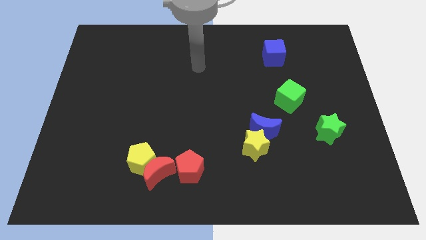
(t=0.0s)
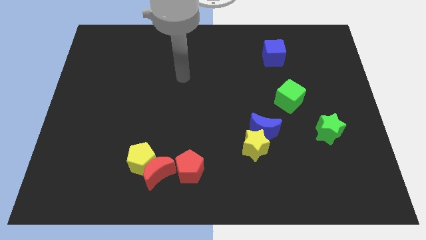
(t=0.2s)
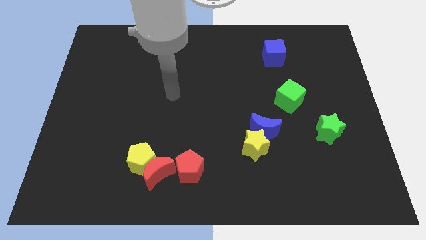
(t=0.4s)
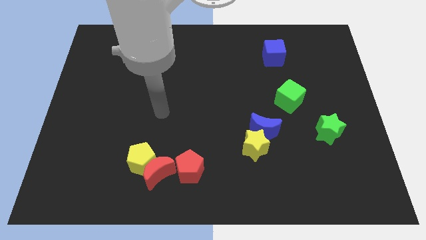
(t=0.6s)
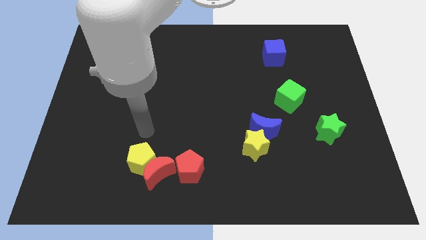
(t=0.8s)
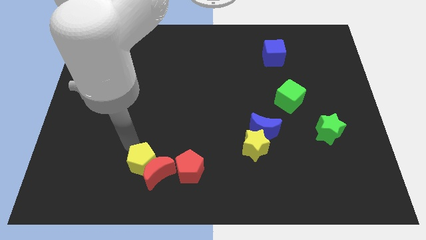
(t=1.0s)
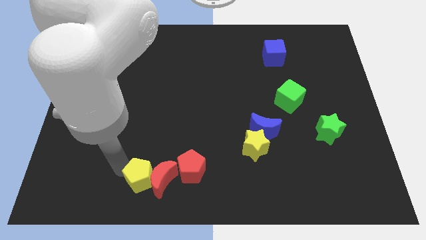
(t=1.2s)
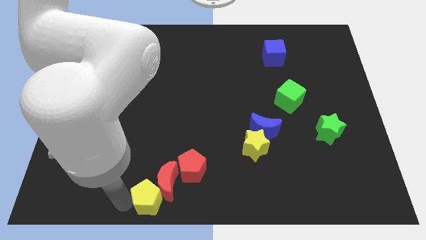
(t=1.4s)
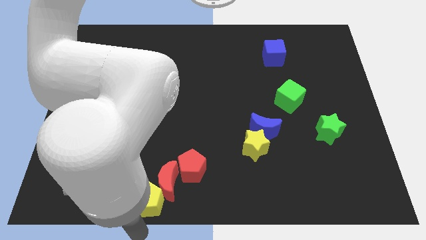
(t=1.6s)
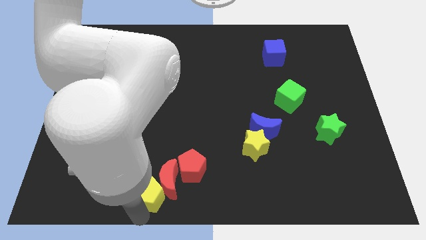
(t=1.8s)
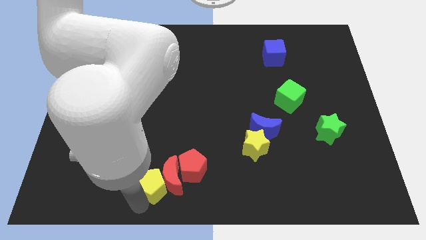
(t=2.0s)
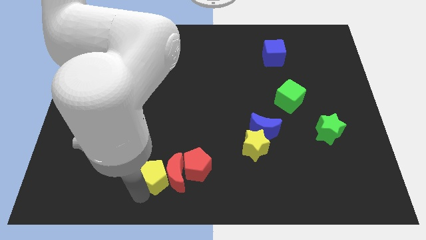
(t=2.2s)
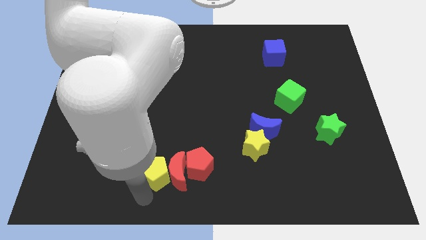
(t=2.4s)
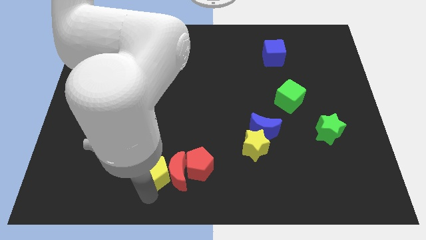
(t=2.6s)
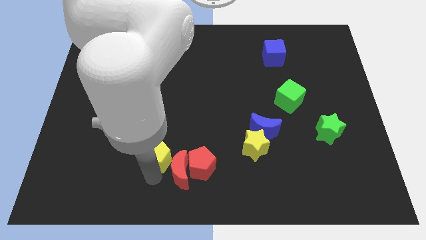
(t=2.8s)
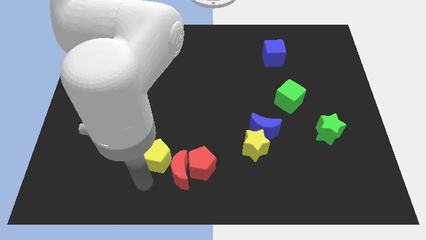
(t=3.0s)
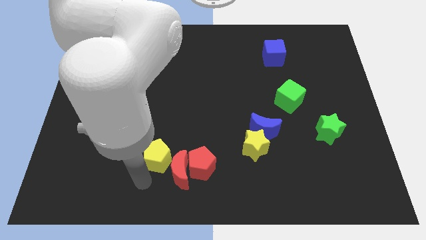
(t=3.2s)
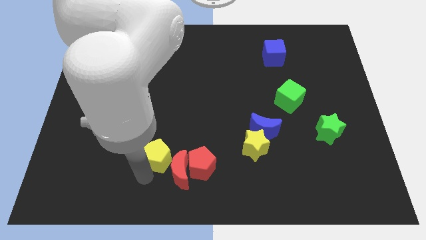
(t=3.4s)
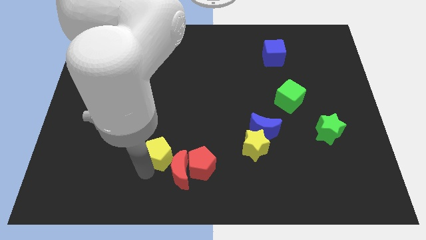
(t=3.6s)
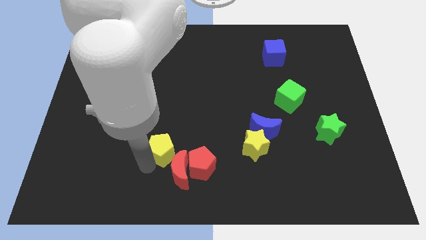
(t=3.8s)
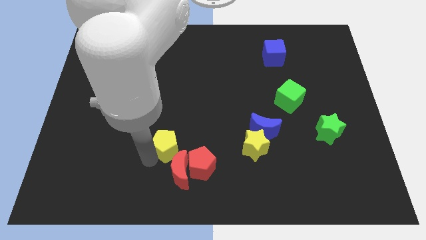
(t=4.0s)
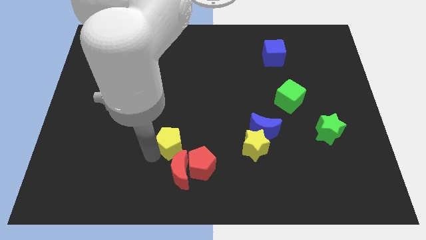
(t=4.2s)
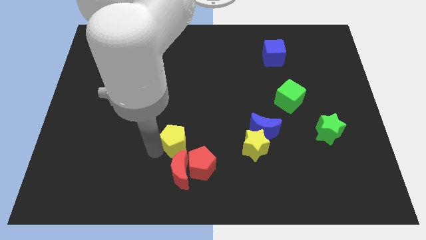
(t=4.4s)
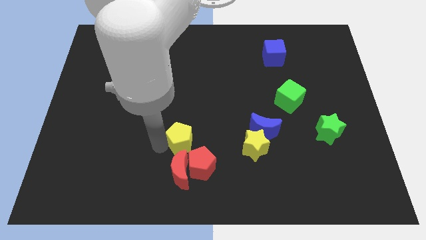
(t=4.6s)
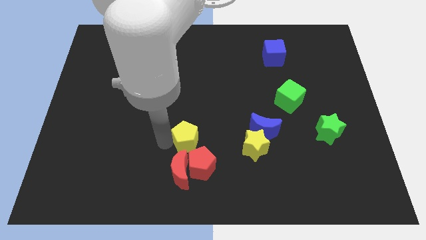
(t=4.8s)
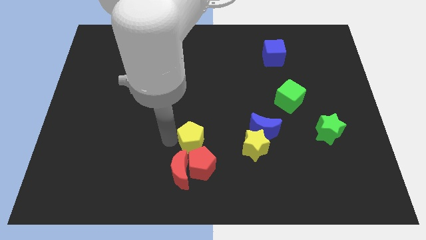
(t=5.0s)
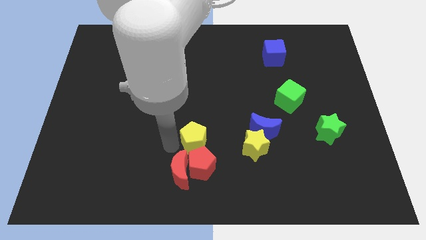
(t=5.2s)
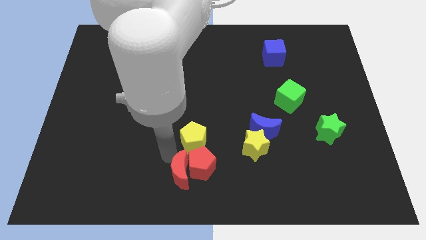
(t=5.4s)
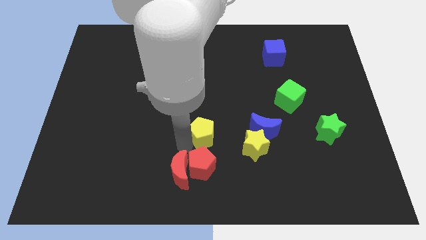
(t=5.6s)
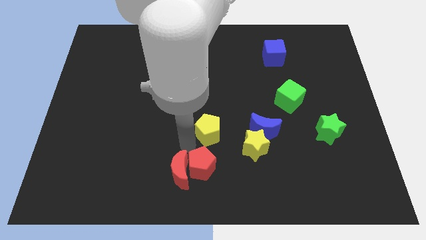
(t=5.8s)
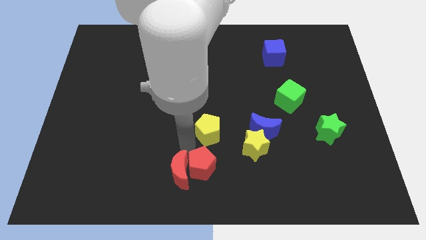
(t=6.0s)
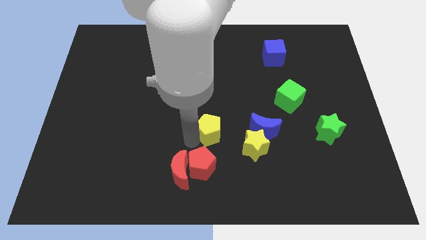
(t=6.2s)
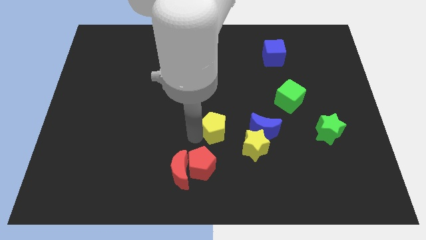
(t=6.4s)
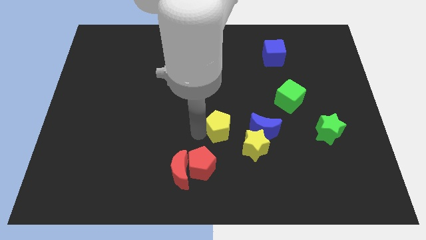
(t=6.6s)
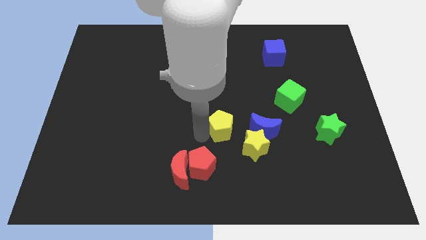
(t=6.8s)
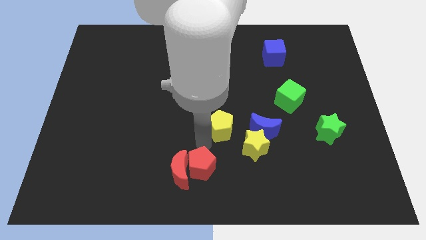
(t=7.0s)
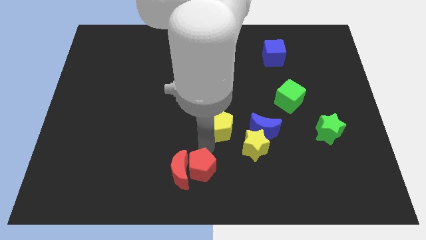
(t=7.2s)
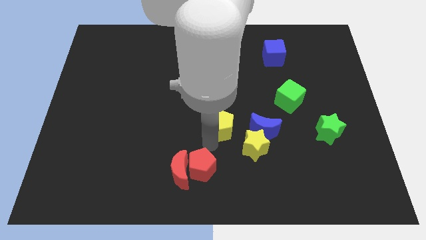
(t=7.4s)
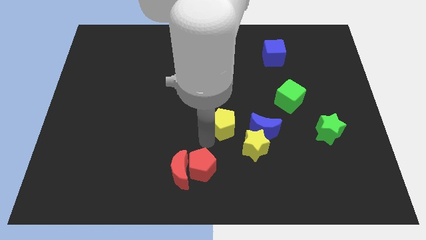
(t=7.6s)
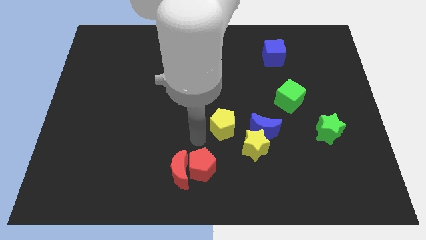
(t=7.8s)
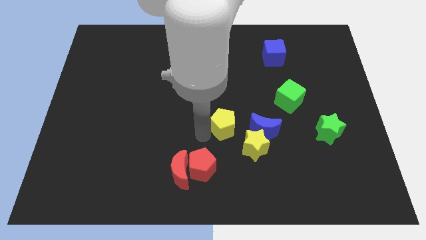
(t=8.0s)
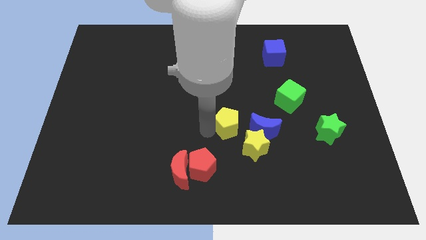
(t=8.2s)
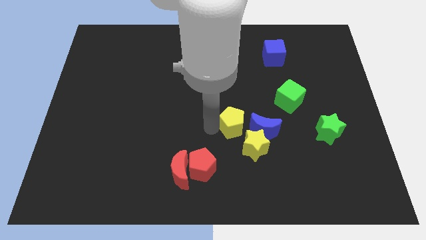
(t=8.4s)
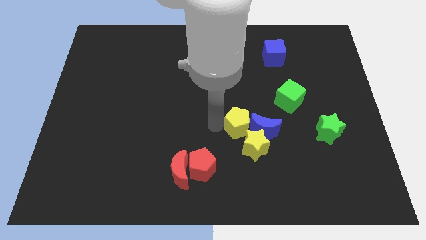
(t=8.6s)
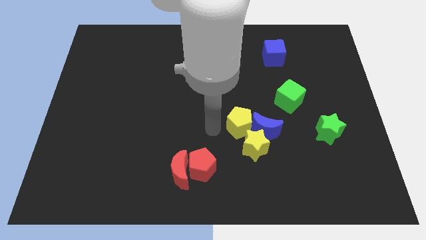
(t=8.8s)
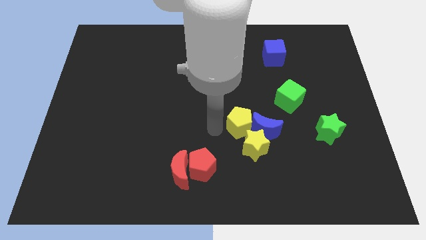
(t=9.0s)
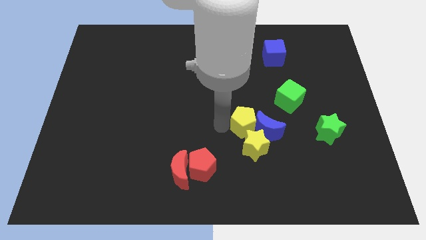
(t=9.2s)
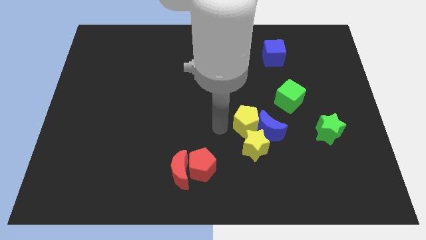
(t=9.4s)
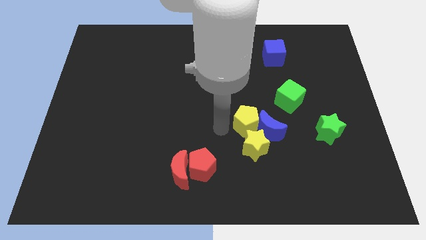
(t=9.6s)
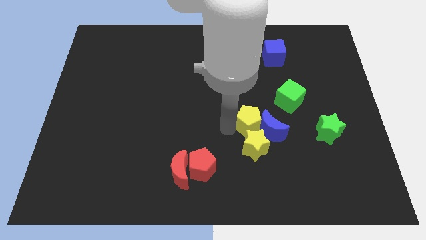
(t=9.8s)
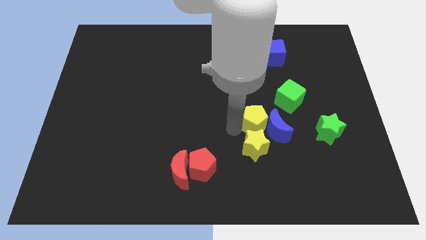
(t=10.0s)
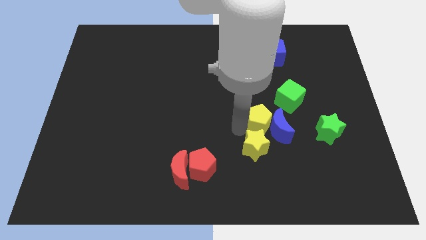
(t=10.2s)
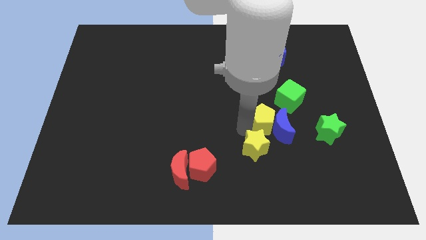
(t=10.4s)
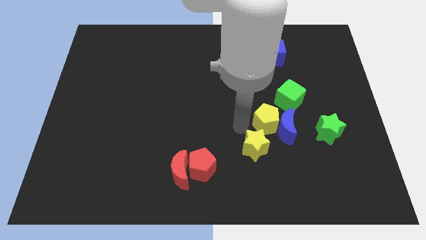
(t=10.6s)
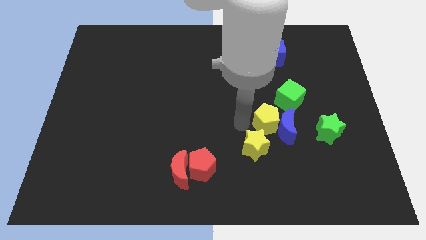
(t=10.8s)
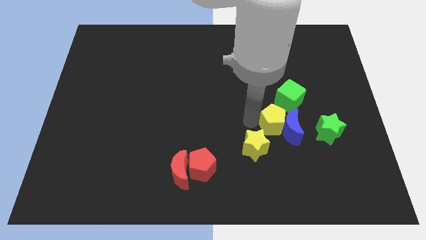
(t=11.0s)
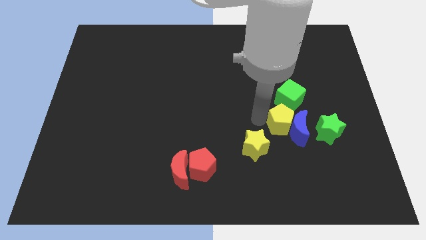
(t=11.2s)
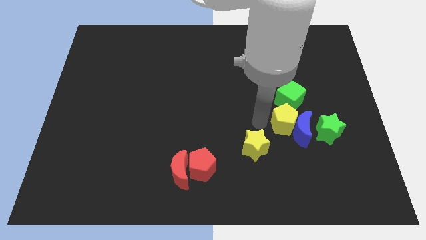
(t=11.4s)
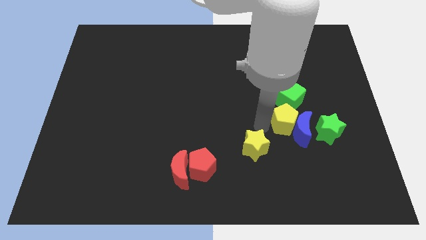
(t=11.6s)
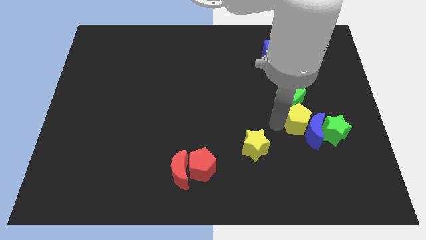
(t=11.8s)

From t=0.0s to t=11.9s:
put the yellow pentagon to the bottom right side of the green cube

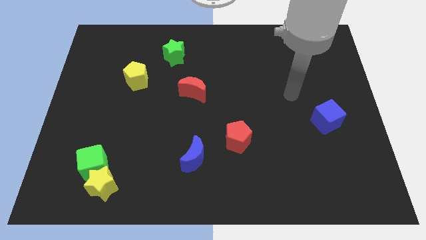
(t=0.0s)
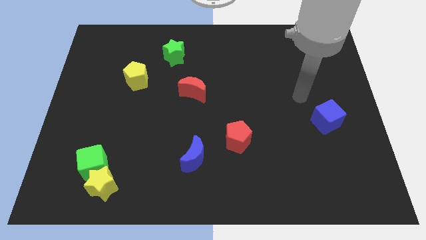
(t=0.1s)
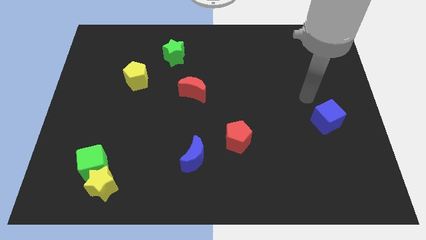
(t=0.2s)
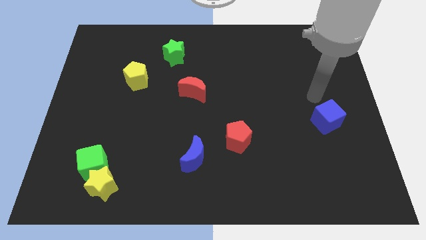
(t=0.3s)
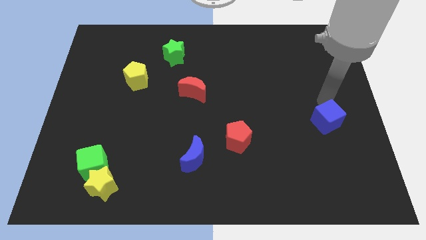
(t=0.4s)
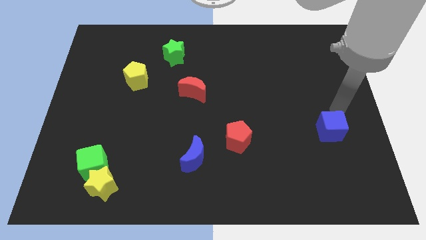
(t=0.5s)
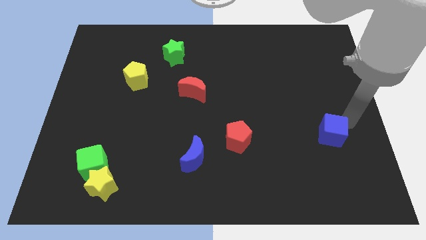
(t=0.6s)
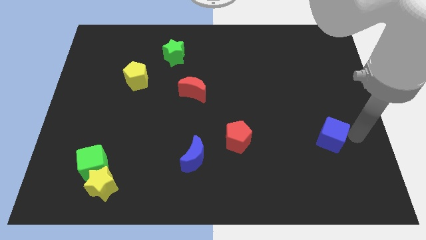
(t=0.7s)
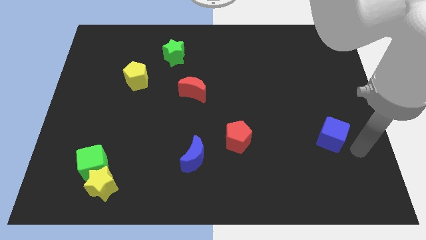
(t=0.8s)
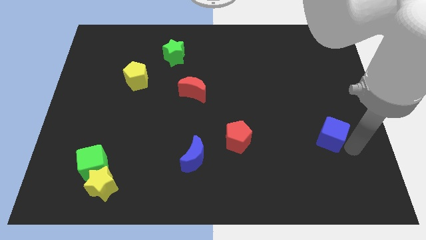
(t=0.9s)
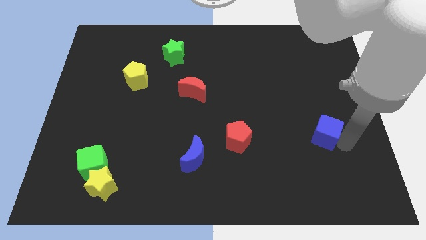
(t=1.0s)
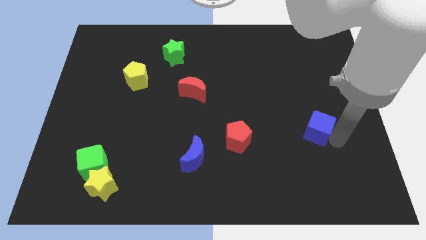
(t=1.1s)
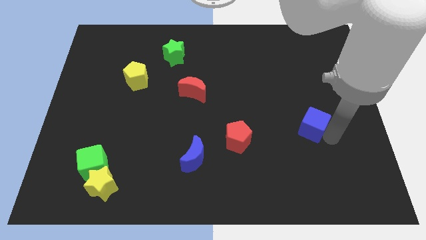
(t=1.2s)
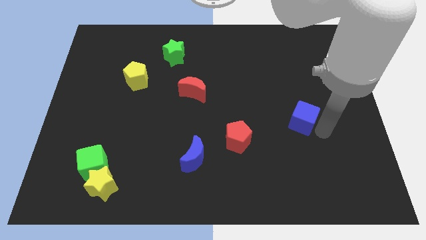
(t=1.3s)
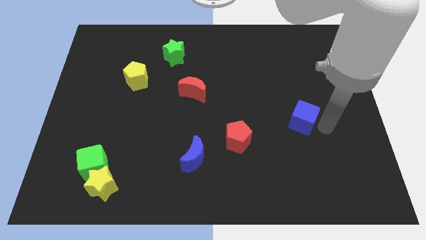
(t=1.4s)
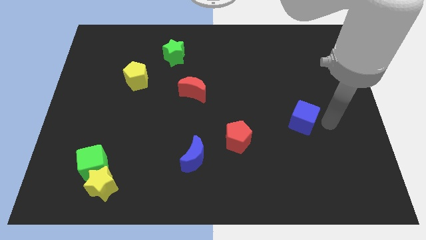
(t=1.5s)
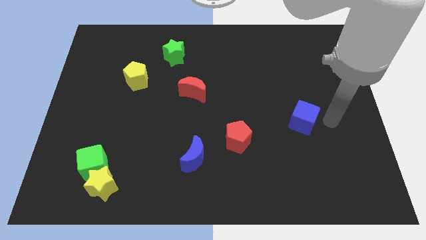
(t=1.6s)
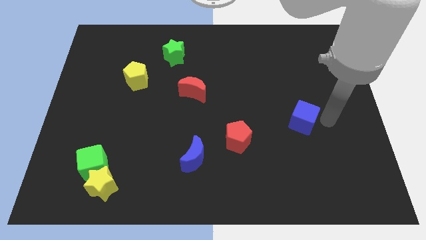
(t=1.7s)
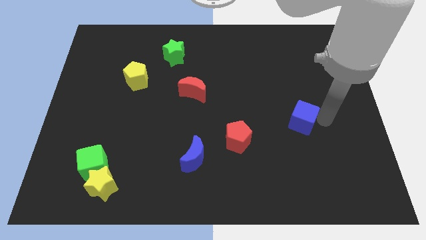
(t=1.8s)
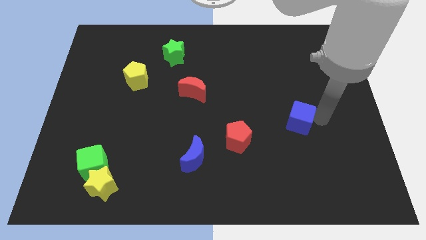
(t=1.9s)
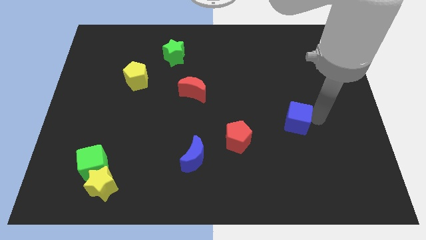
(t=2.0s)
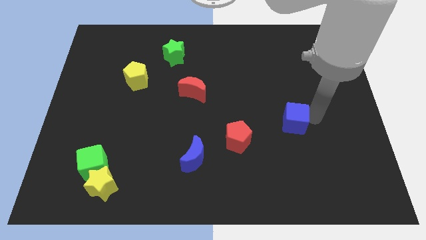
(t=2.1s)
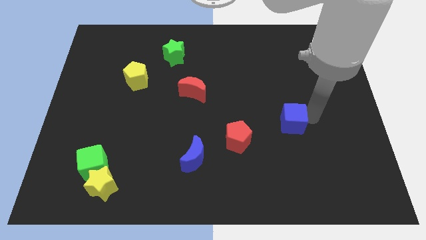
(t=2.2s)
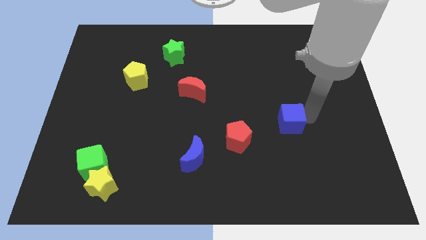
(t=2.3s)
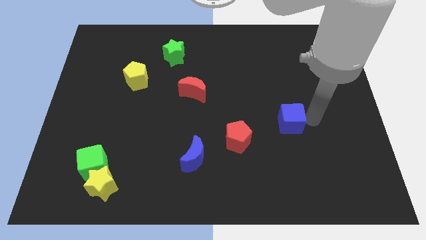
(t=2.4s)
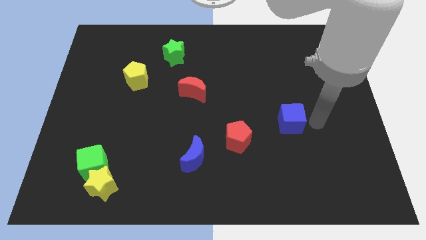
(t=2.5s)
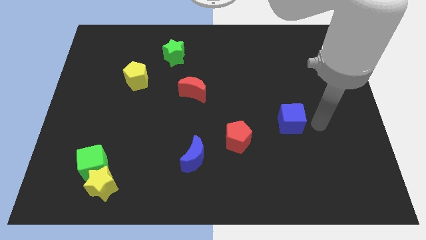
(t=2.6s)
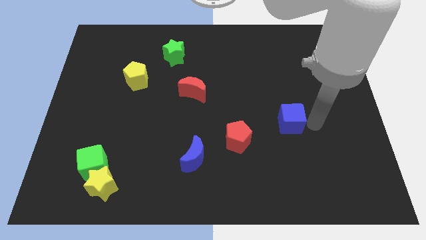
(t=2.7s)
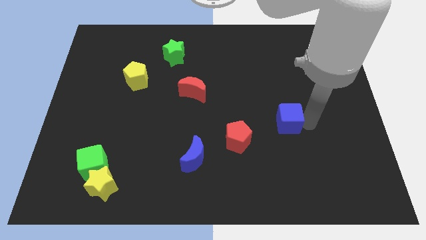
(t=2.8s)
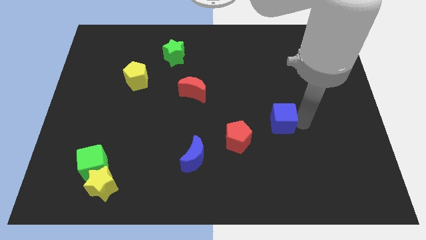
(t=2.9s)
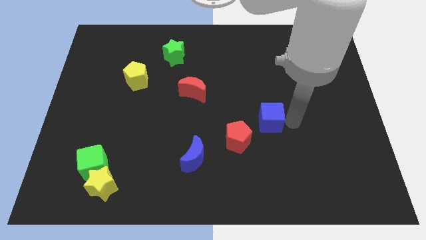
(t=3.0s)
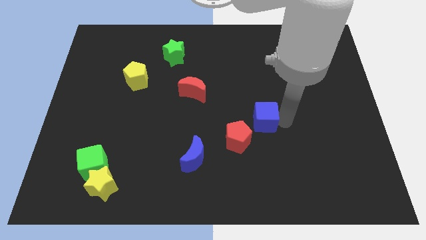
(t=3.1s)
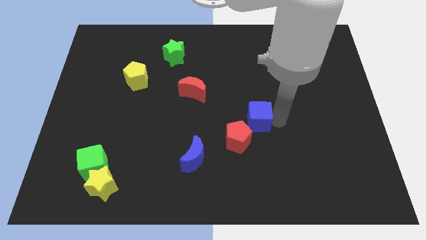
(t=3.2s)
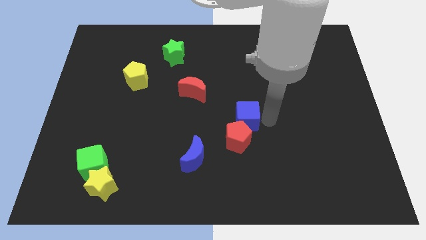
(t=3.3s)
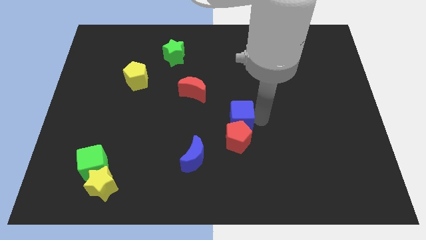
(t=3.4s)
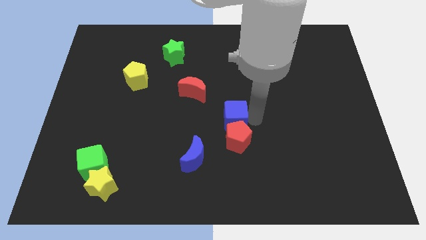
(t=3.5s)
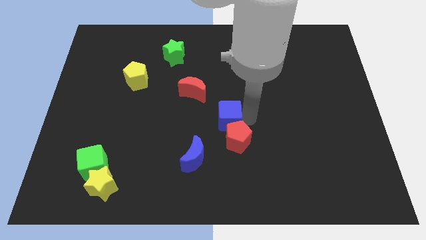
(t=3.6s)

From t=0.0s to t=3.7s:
push the blue cube diagonally up and to the right of the blue moon
